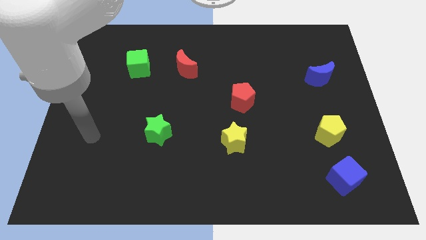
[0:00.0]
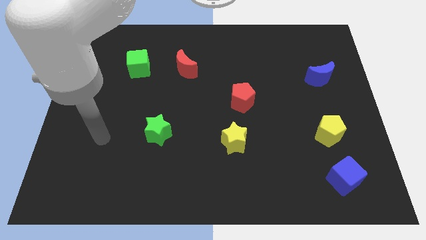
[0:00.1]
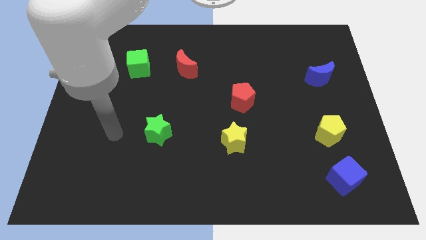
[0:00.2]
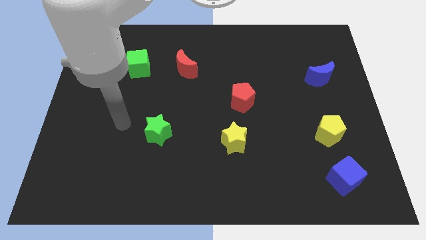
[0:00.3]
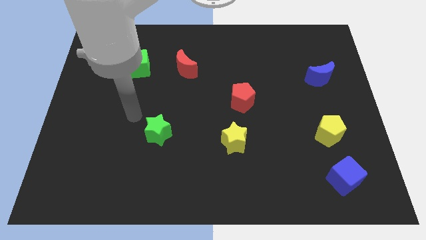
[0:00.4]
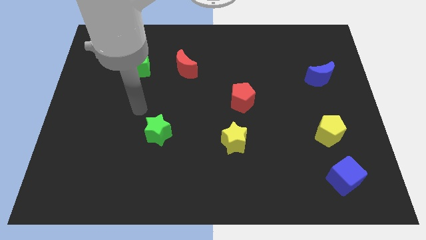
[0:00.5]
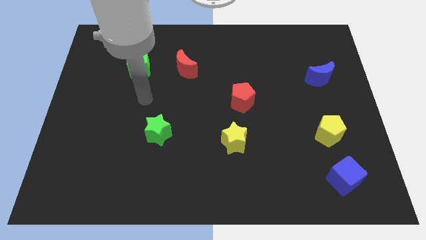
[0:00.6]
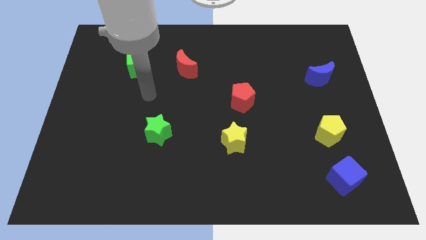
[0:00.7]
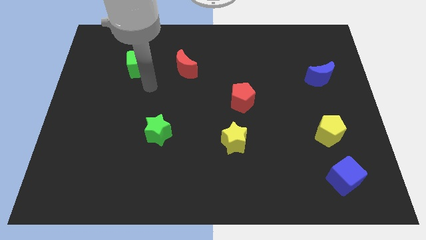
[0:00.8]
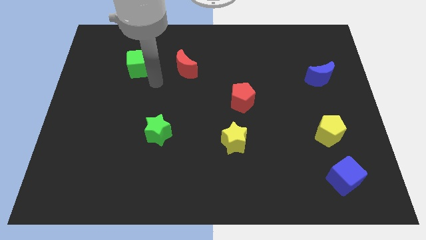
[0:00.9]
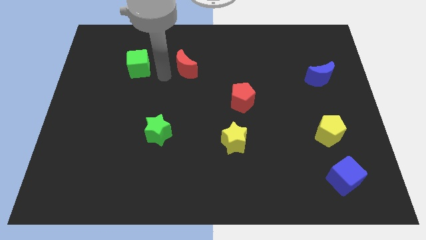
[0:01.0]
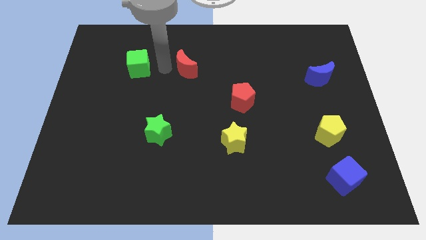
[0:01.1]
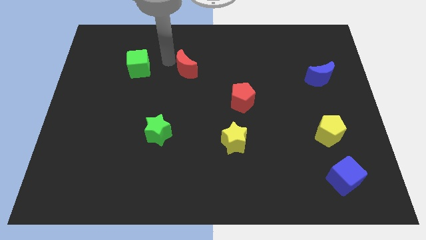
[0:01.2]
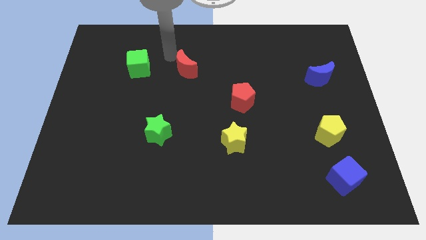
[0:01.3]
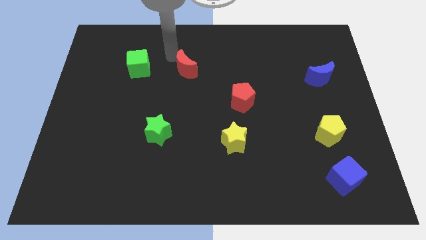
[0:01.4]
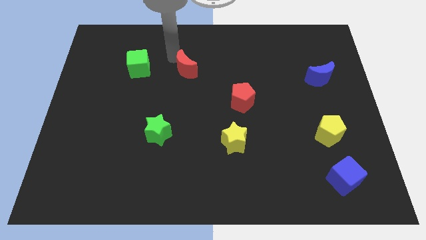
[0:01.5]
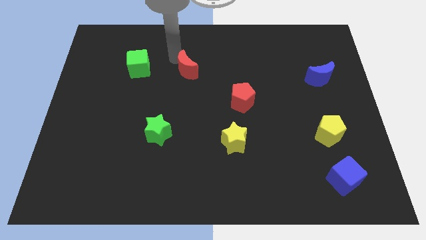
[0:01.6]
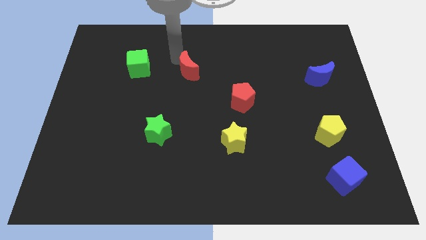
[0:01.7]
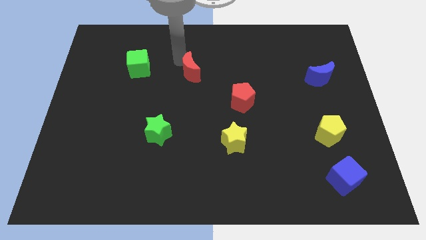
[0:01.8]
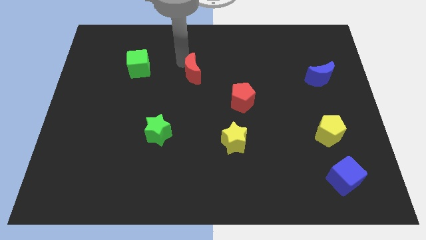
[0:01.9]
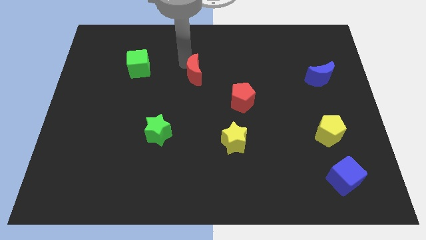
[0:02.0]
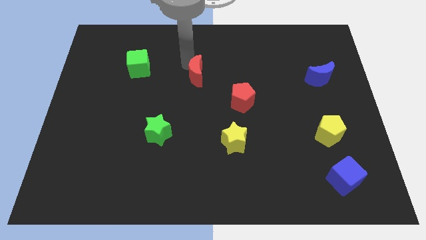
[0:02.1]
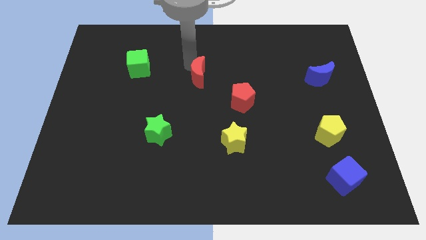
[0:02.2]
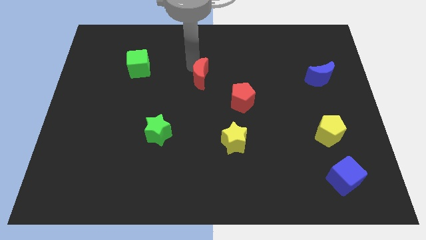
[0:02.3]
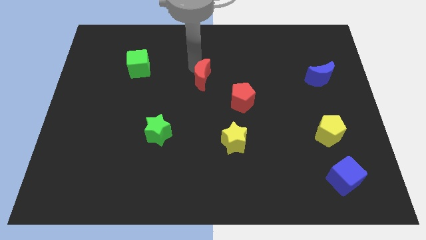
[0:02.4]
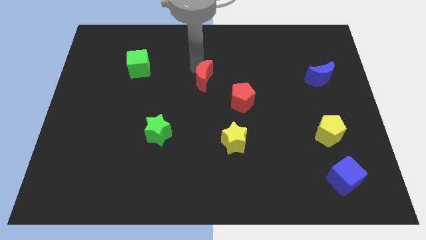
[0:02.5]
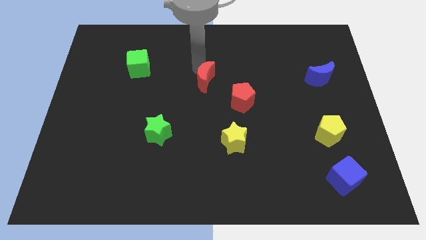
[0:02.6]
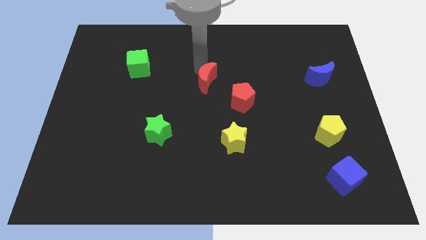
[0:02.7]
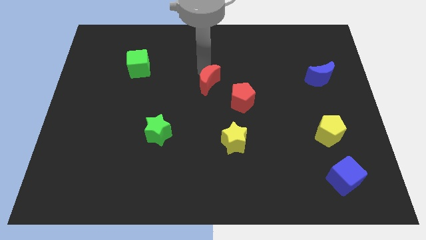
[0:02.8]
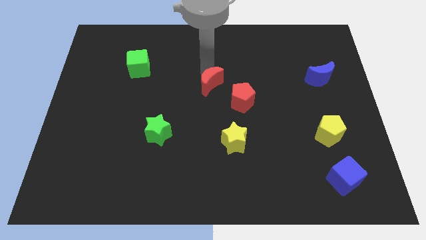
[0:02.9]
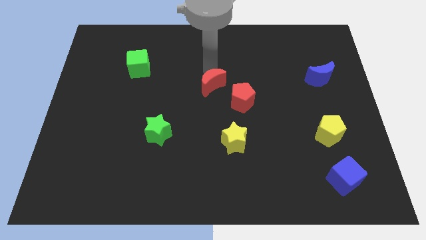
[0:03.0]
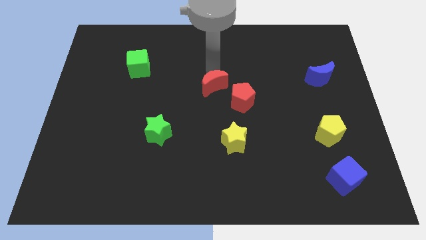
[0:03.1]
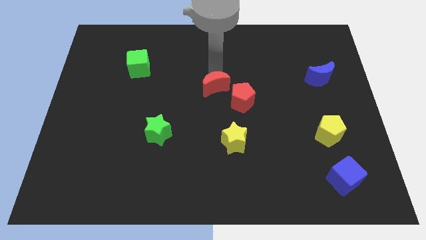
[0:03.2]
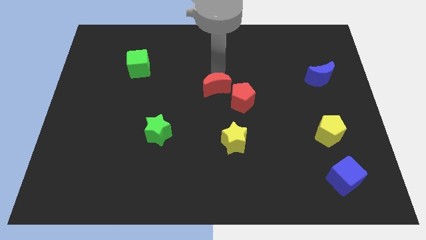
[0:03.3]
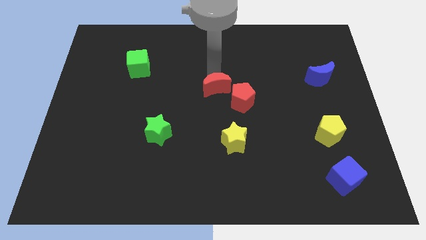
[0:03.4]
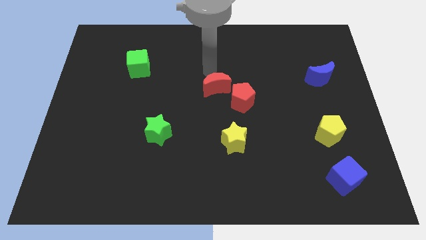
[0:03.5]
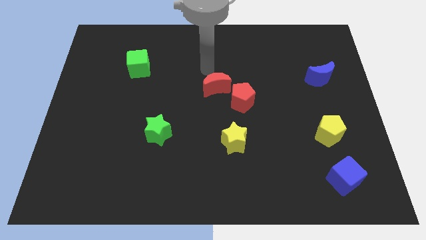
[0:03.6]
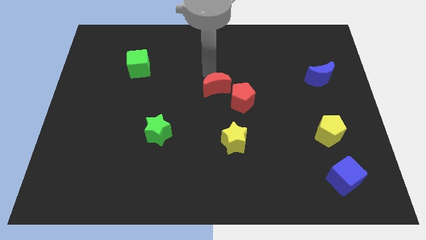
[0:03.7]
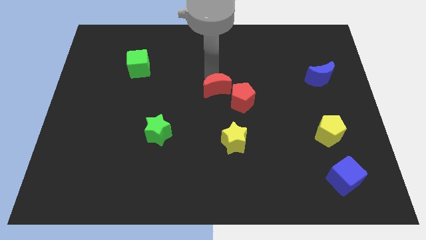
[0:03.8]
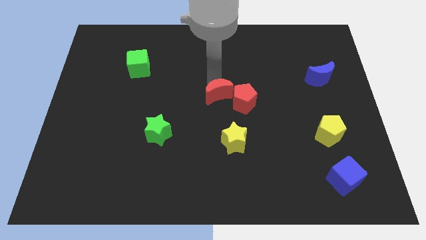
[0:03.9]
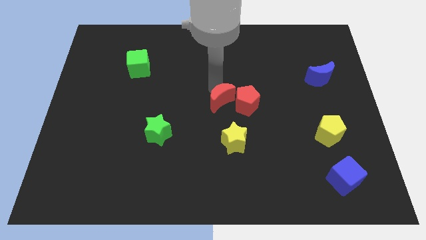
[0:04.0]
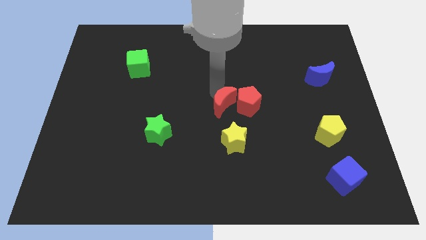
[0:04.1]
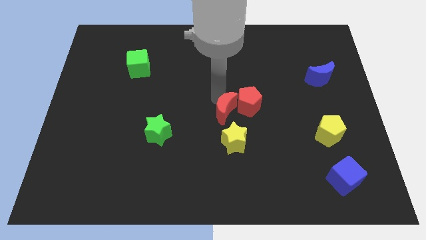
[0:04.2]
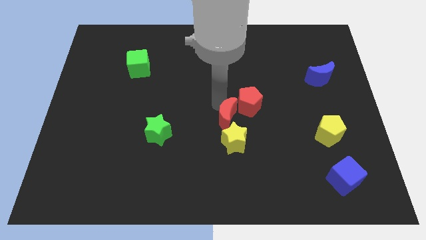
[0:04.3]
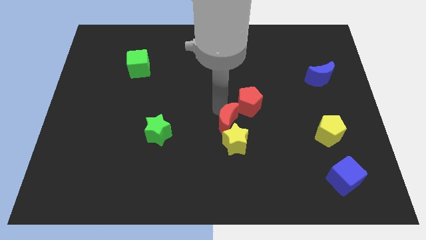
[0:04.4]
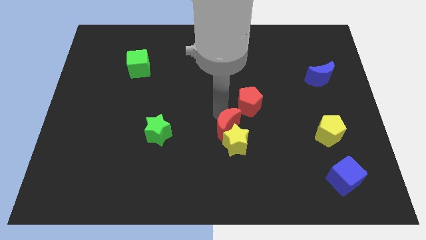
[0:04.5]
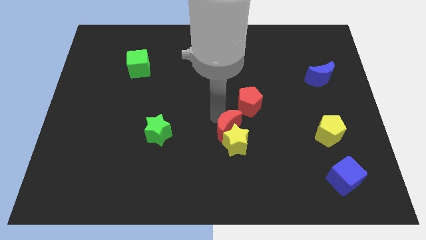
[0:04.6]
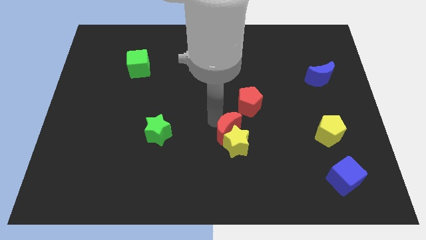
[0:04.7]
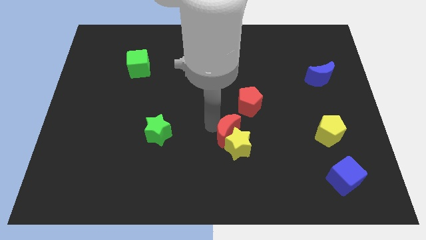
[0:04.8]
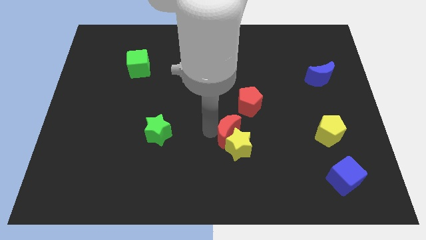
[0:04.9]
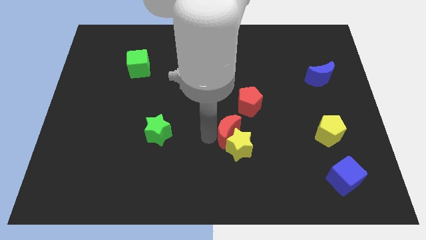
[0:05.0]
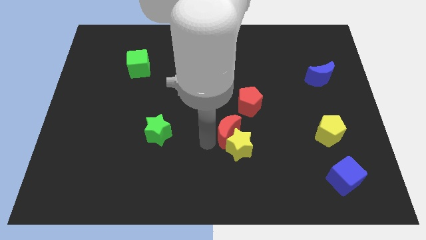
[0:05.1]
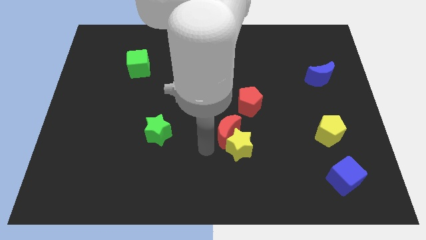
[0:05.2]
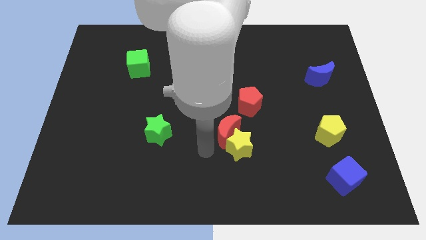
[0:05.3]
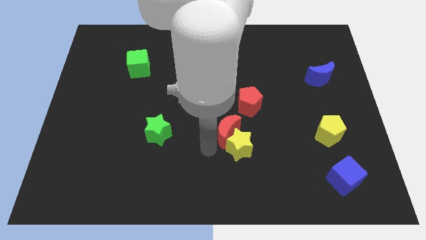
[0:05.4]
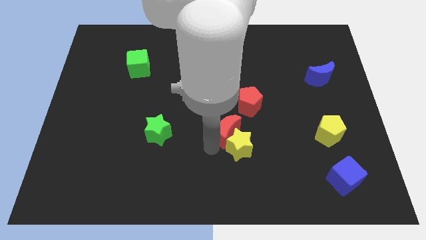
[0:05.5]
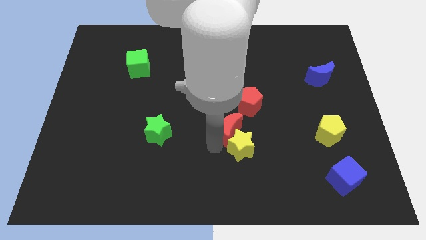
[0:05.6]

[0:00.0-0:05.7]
push the red moon downwards and right diagonally

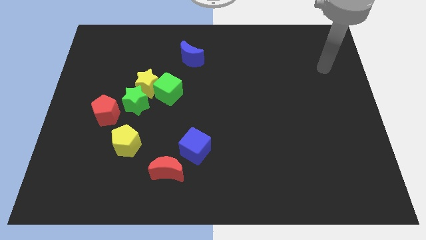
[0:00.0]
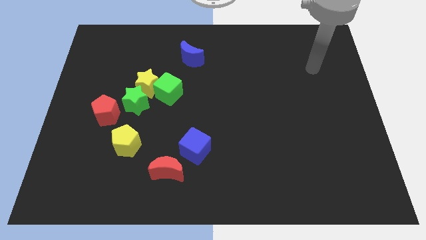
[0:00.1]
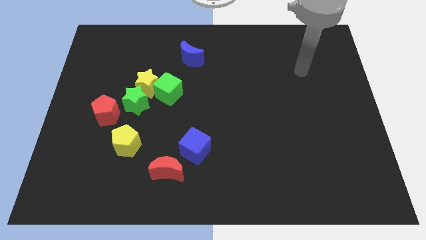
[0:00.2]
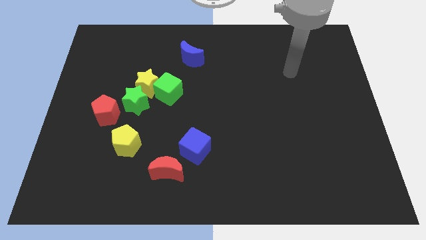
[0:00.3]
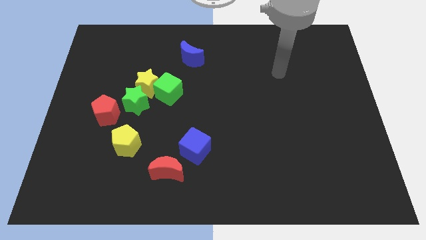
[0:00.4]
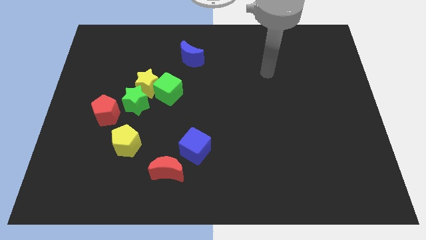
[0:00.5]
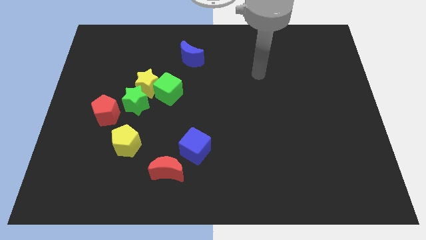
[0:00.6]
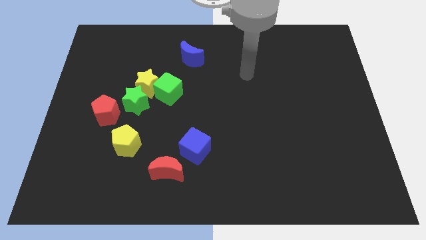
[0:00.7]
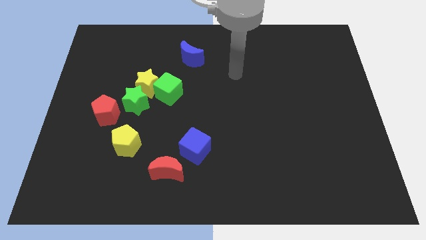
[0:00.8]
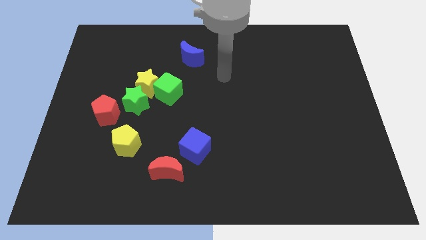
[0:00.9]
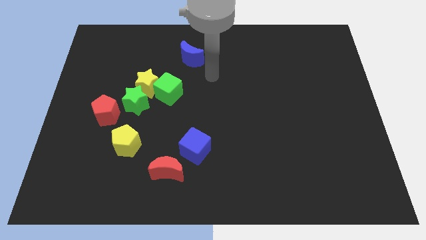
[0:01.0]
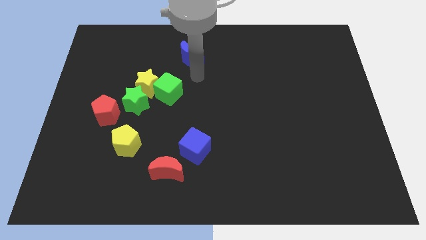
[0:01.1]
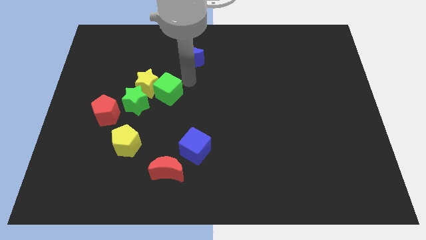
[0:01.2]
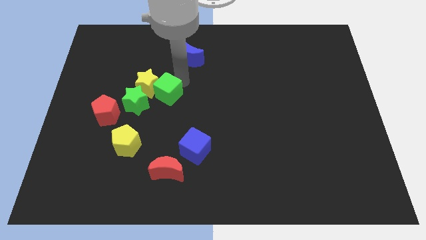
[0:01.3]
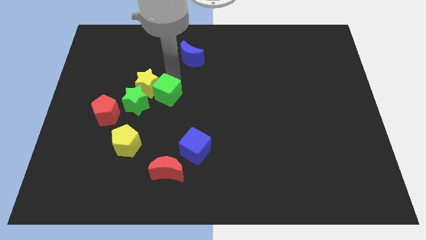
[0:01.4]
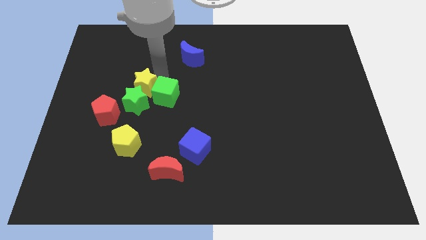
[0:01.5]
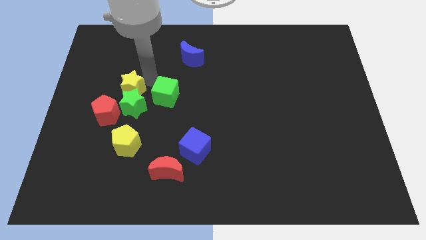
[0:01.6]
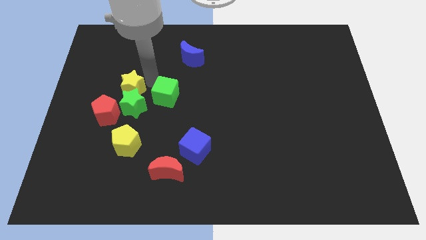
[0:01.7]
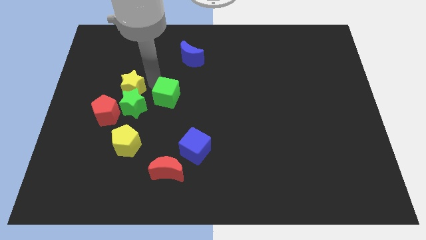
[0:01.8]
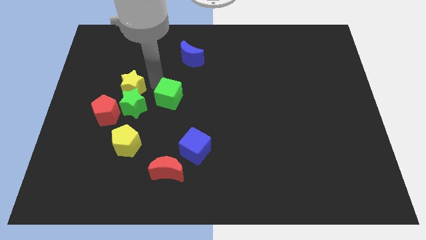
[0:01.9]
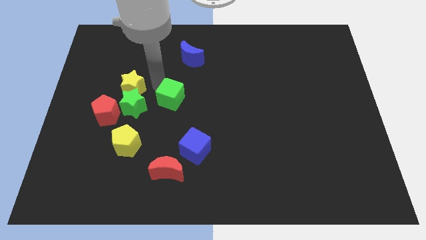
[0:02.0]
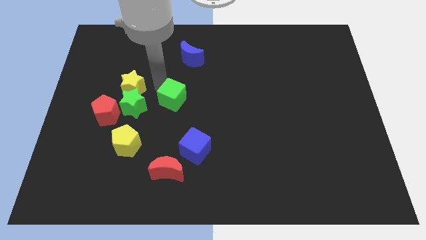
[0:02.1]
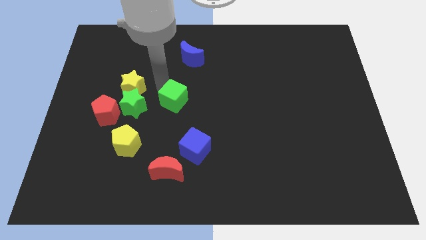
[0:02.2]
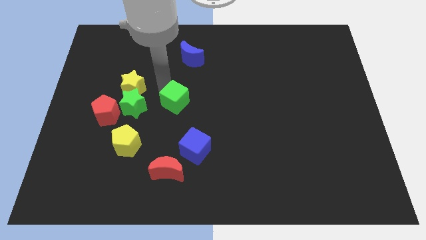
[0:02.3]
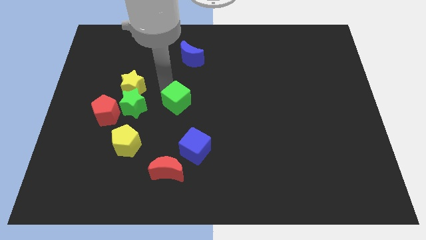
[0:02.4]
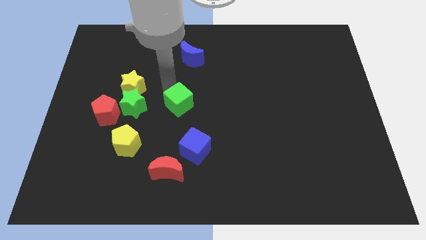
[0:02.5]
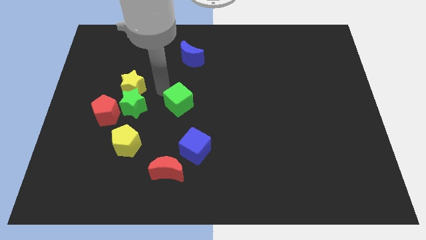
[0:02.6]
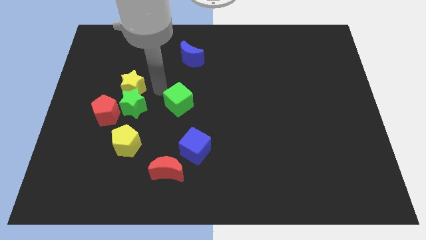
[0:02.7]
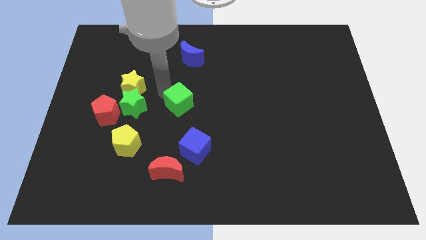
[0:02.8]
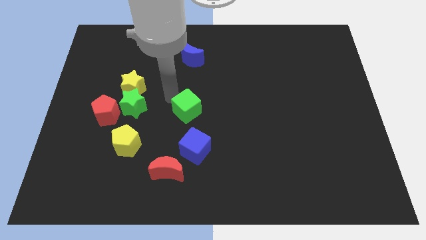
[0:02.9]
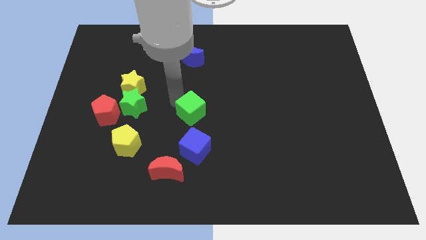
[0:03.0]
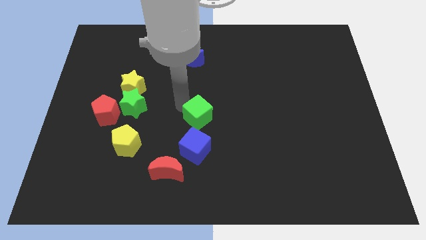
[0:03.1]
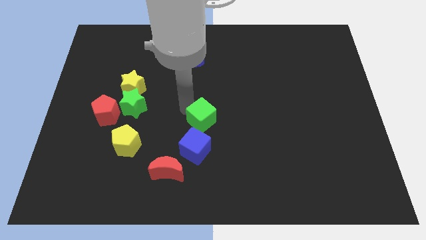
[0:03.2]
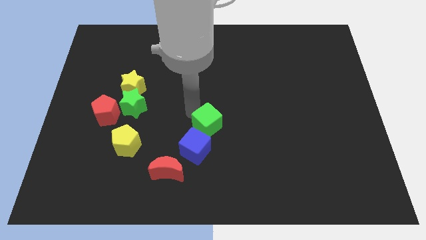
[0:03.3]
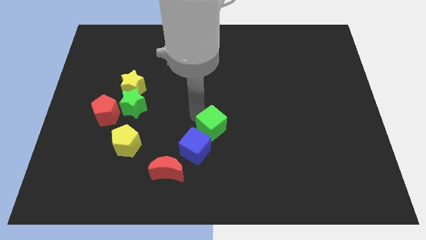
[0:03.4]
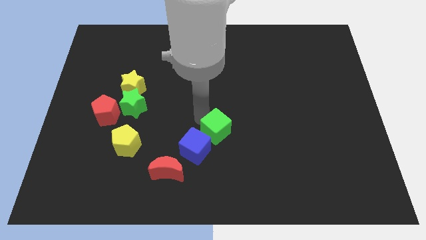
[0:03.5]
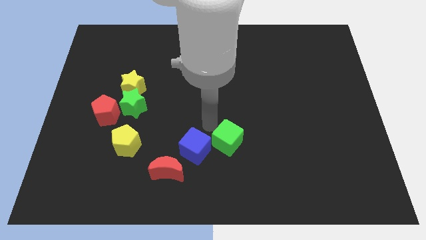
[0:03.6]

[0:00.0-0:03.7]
push the green cube downwards and right
